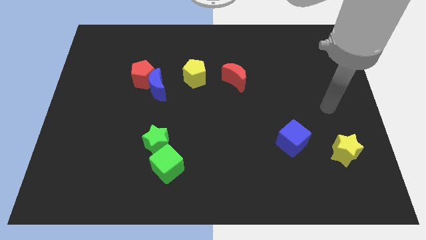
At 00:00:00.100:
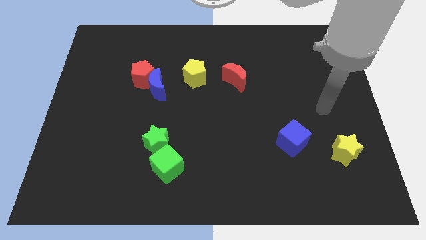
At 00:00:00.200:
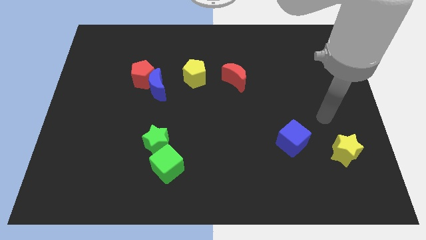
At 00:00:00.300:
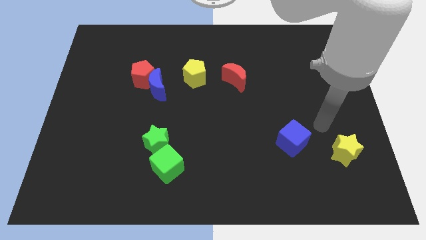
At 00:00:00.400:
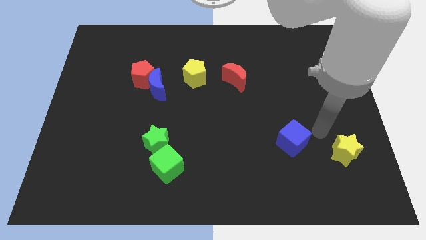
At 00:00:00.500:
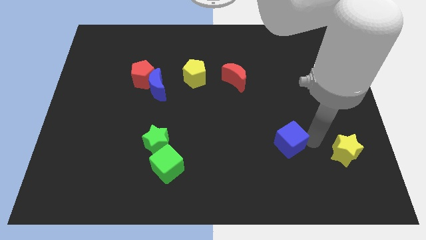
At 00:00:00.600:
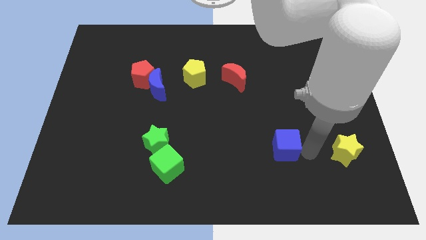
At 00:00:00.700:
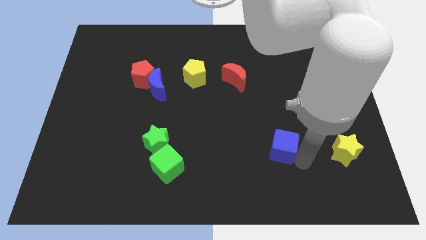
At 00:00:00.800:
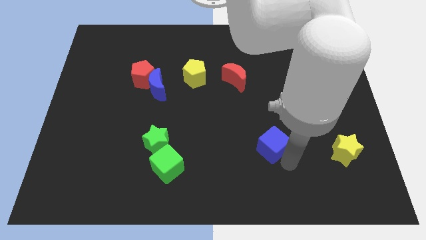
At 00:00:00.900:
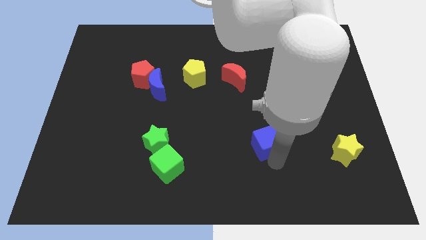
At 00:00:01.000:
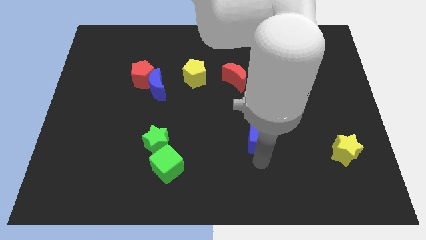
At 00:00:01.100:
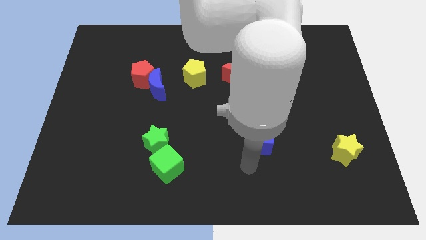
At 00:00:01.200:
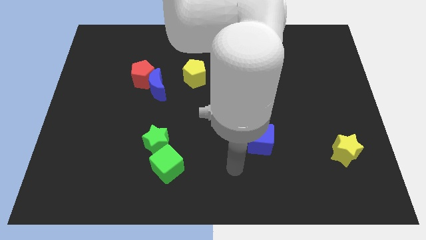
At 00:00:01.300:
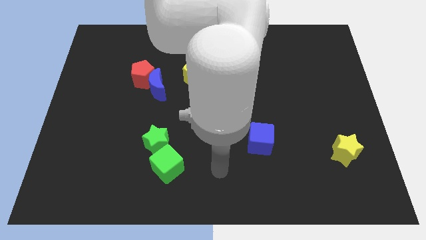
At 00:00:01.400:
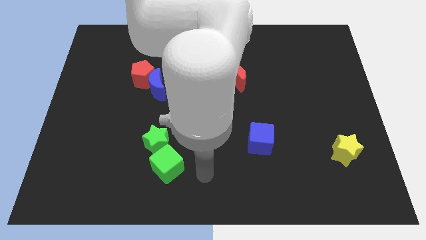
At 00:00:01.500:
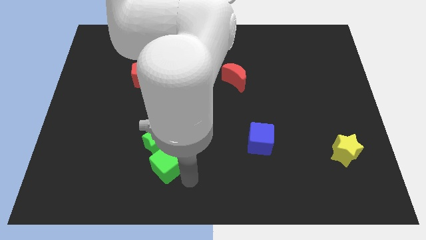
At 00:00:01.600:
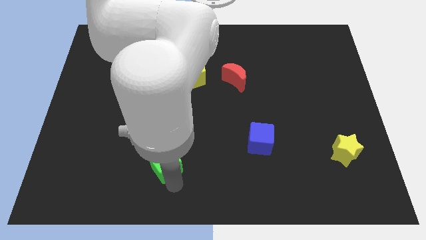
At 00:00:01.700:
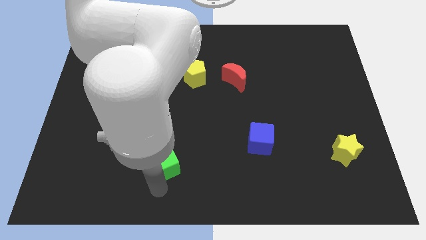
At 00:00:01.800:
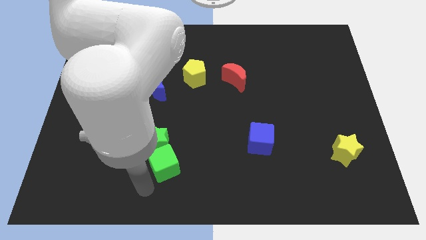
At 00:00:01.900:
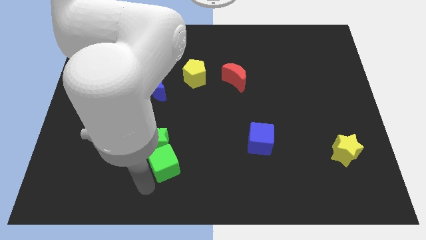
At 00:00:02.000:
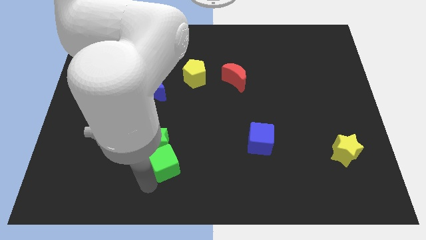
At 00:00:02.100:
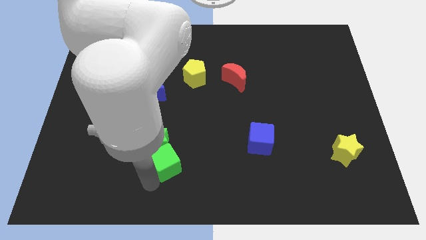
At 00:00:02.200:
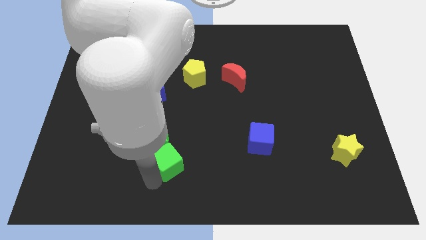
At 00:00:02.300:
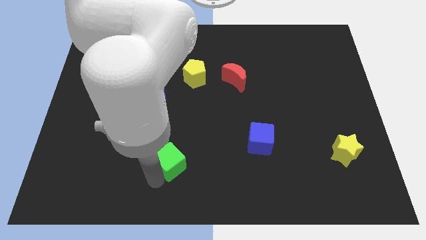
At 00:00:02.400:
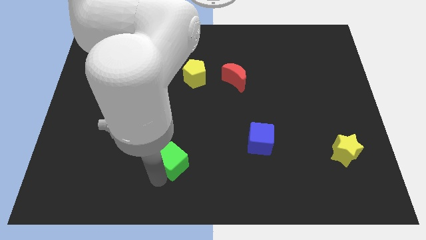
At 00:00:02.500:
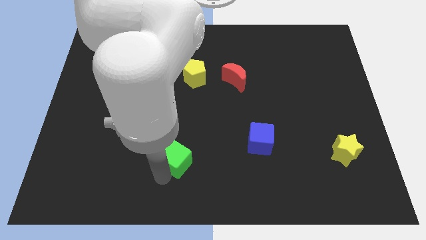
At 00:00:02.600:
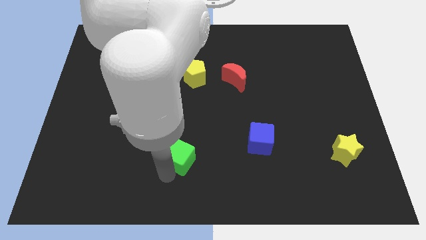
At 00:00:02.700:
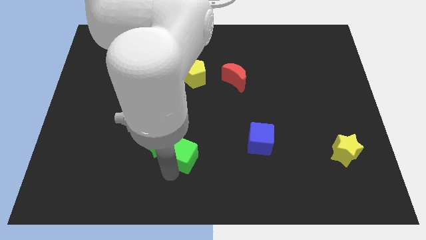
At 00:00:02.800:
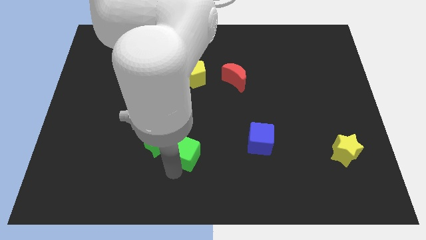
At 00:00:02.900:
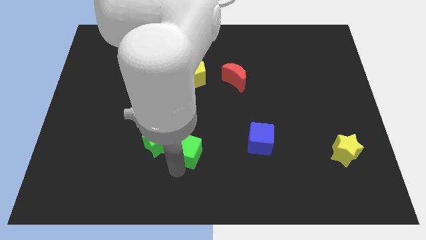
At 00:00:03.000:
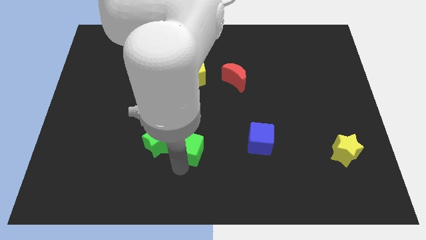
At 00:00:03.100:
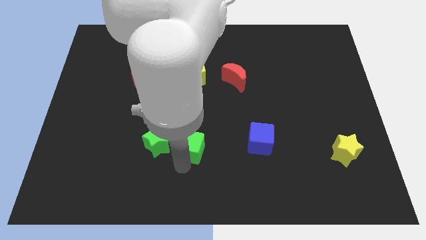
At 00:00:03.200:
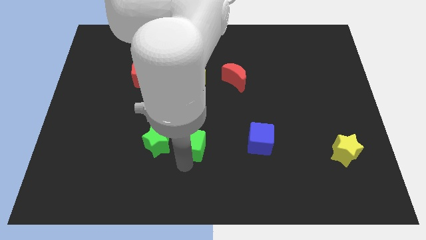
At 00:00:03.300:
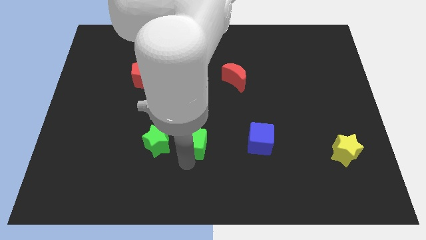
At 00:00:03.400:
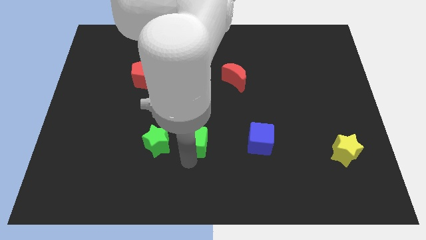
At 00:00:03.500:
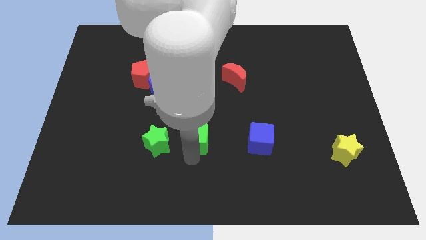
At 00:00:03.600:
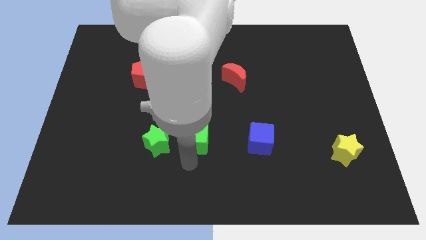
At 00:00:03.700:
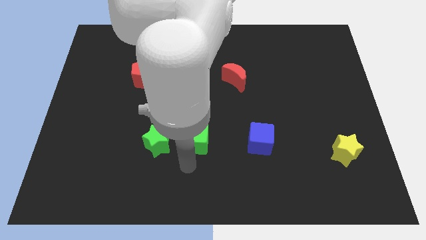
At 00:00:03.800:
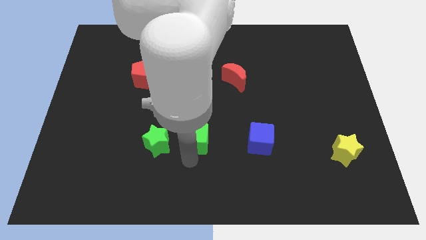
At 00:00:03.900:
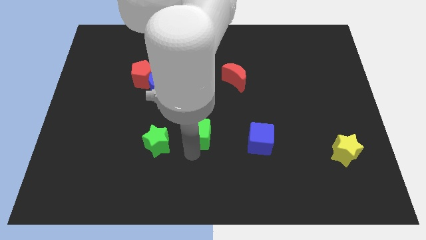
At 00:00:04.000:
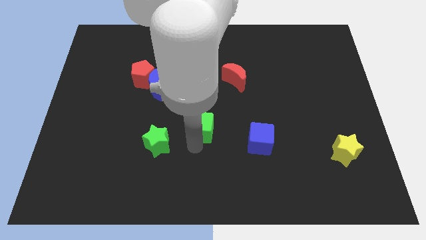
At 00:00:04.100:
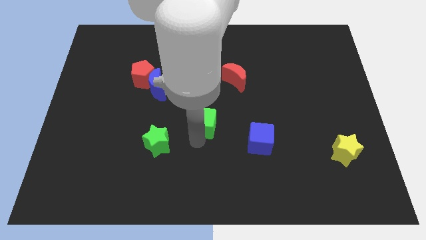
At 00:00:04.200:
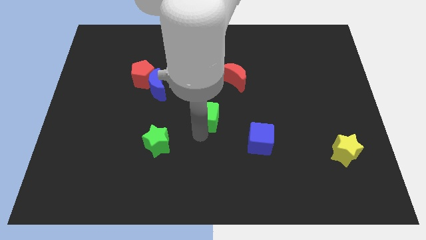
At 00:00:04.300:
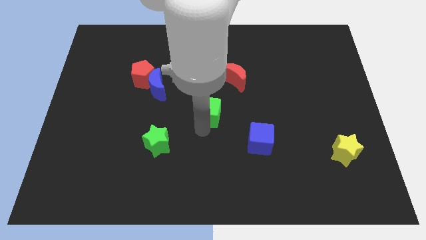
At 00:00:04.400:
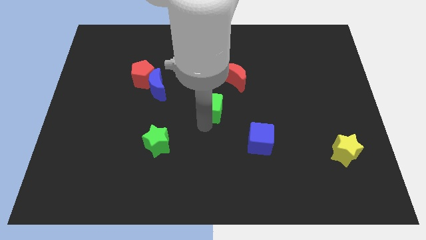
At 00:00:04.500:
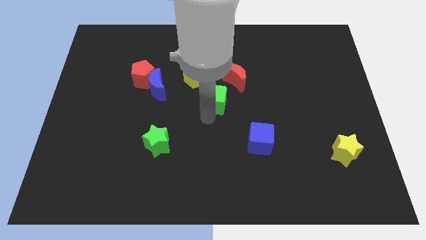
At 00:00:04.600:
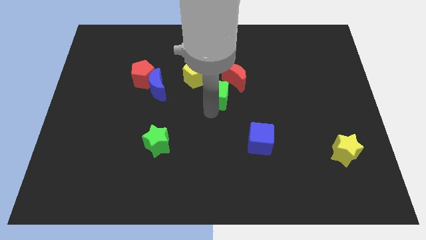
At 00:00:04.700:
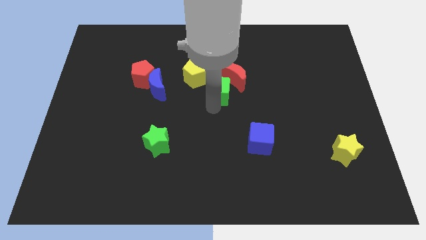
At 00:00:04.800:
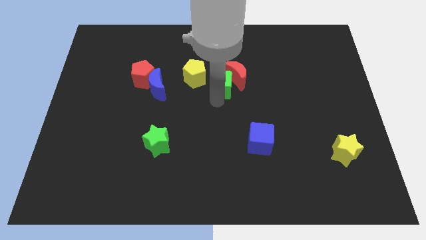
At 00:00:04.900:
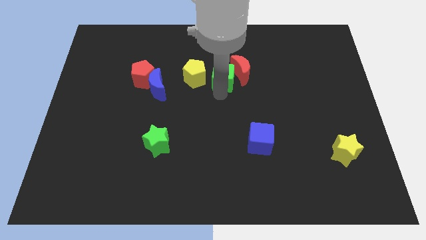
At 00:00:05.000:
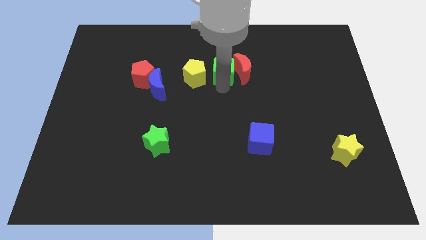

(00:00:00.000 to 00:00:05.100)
slide the green cube diagonally up and to the left of the red moon

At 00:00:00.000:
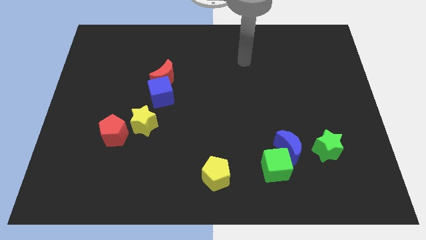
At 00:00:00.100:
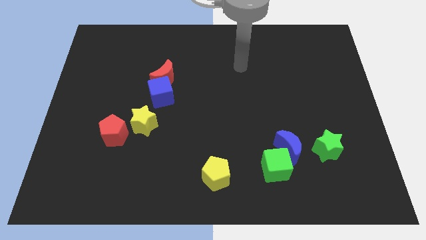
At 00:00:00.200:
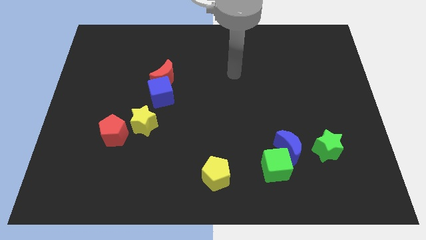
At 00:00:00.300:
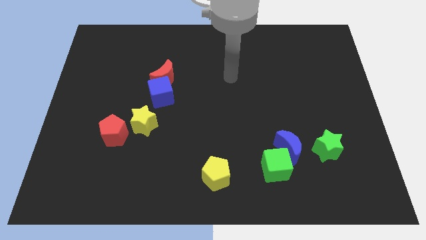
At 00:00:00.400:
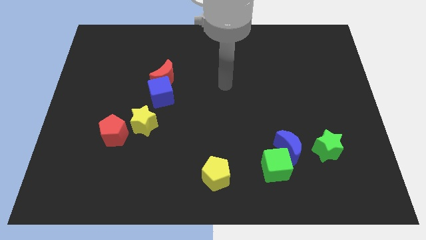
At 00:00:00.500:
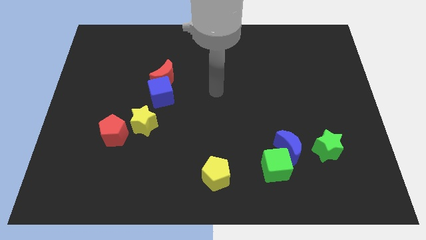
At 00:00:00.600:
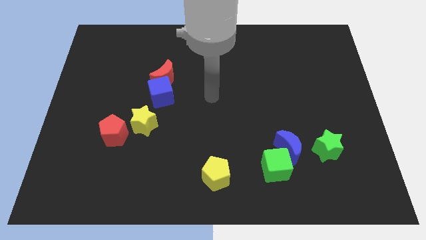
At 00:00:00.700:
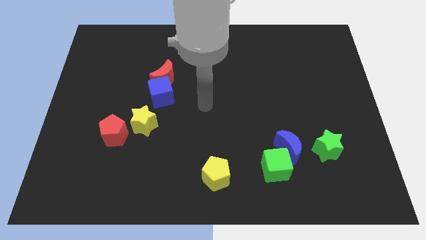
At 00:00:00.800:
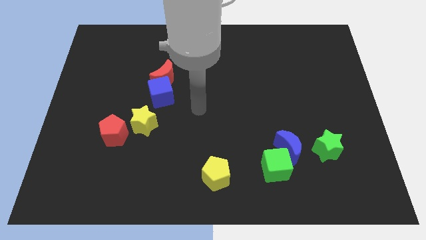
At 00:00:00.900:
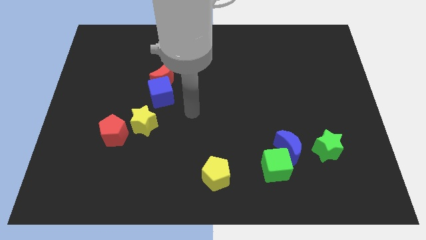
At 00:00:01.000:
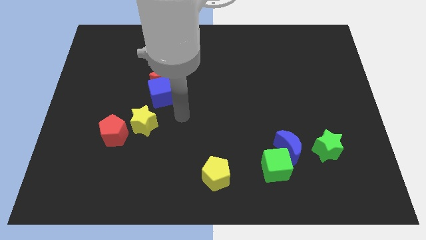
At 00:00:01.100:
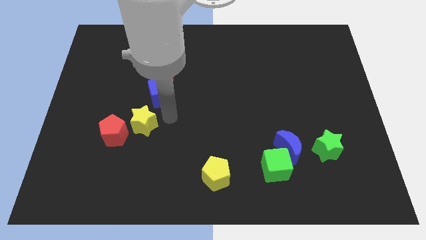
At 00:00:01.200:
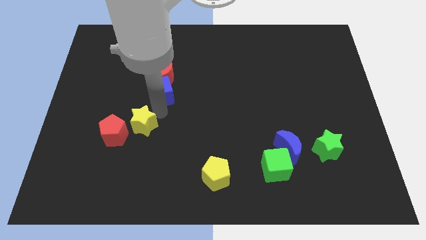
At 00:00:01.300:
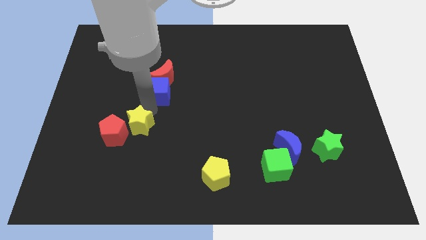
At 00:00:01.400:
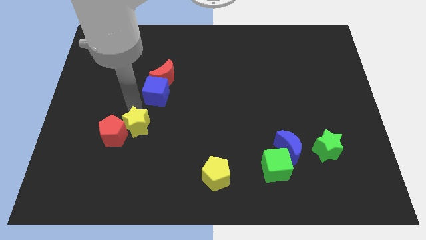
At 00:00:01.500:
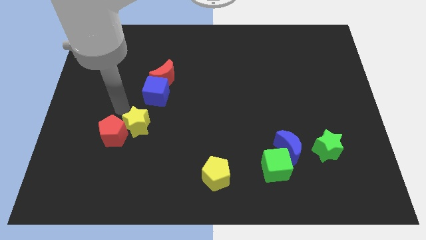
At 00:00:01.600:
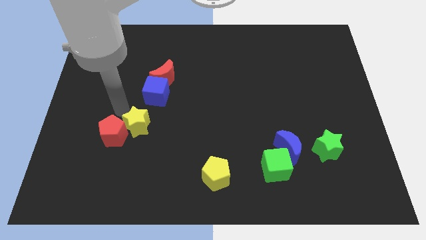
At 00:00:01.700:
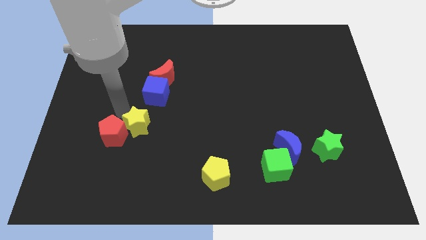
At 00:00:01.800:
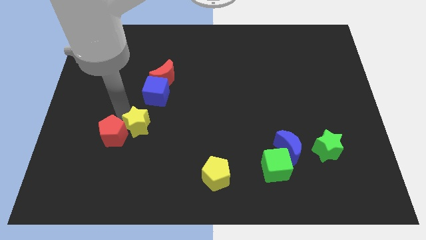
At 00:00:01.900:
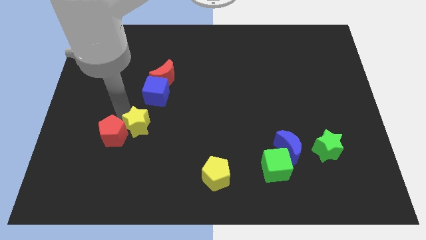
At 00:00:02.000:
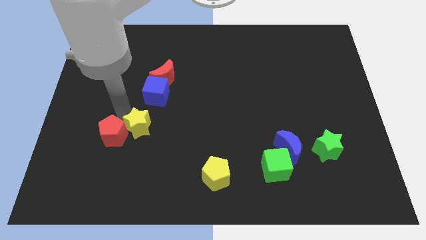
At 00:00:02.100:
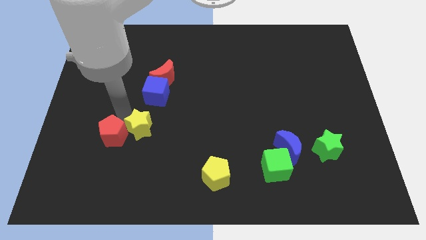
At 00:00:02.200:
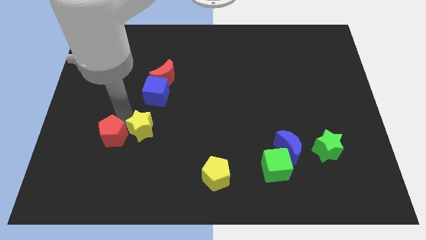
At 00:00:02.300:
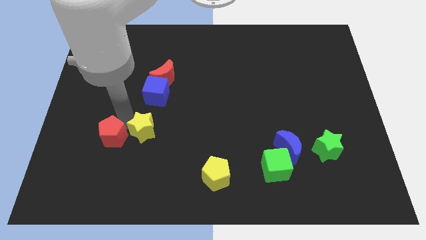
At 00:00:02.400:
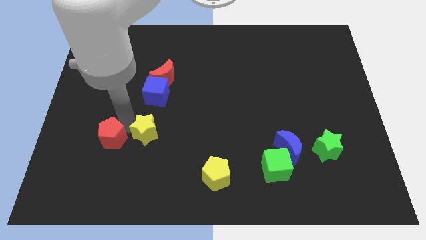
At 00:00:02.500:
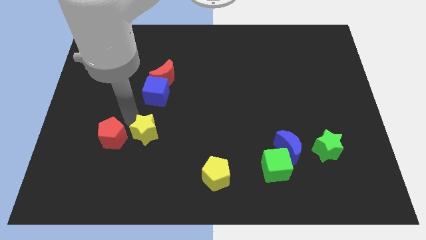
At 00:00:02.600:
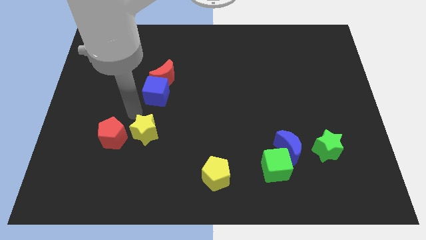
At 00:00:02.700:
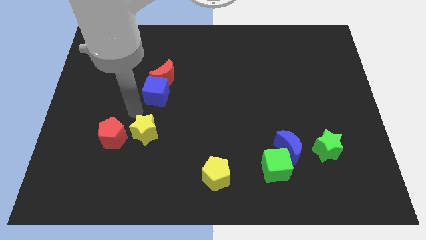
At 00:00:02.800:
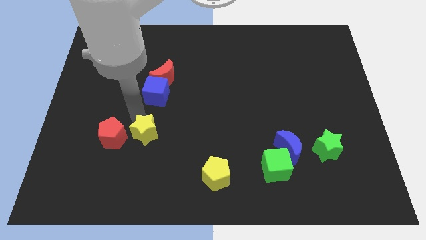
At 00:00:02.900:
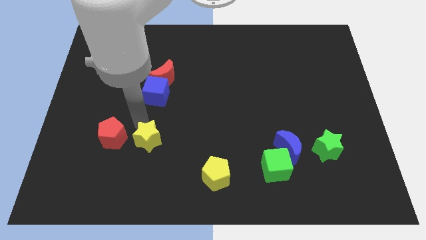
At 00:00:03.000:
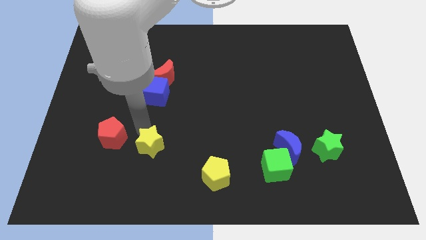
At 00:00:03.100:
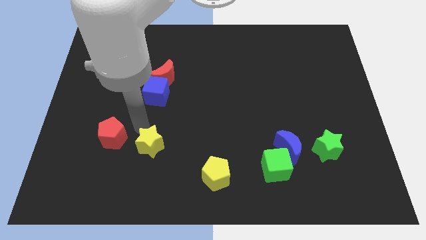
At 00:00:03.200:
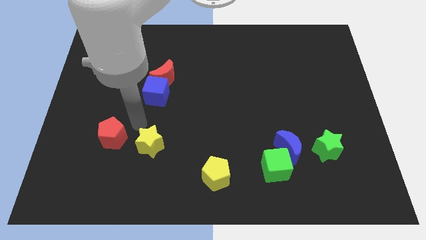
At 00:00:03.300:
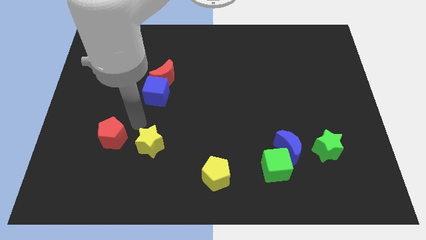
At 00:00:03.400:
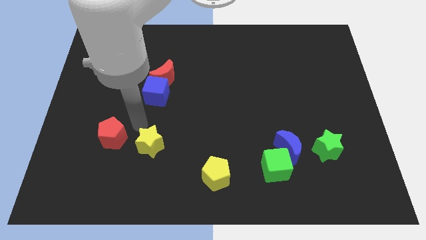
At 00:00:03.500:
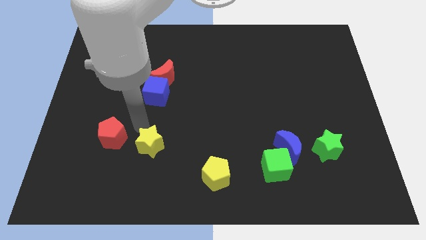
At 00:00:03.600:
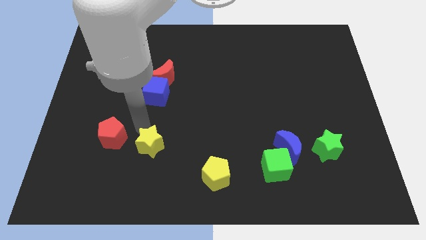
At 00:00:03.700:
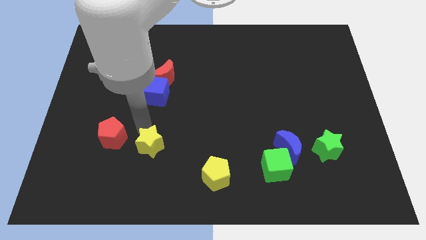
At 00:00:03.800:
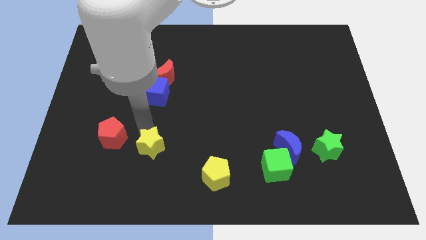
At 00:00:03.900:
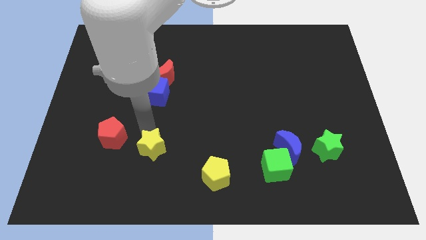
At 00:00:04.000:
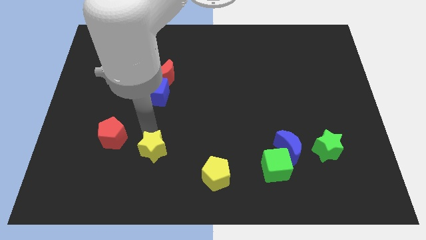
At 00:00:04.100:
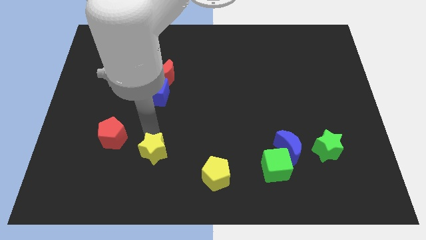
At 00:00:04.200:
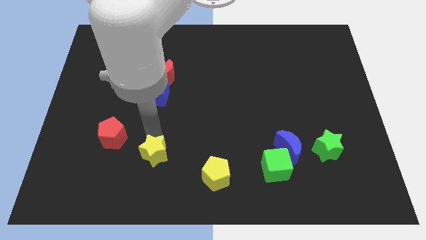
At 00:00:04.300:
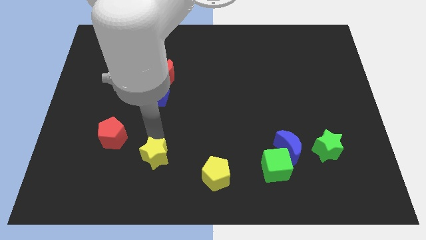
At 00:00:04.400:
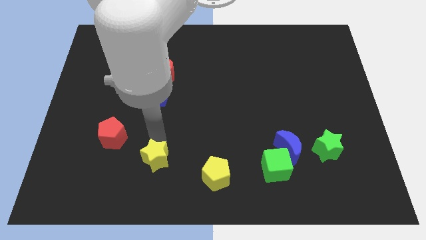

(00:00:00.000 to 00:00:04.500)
push the yellow star left of the yellow pentagon
